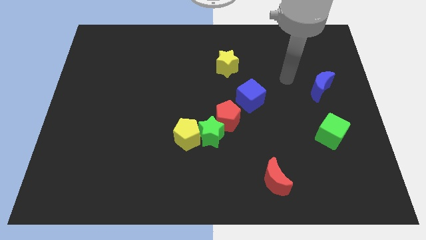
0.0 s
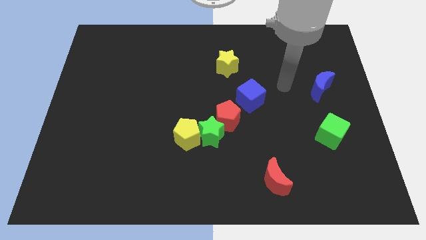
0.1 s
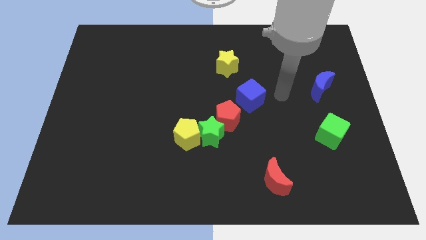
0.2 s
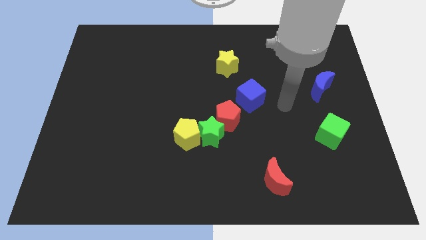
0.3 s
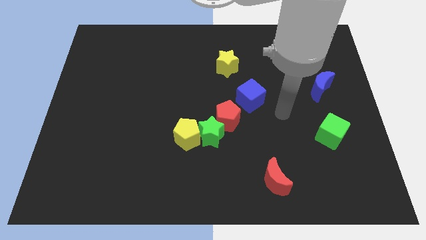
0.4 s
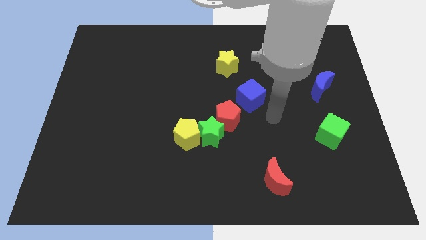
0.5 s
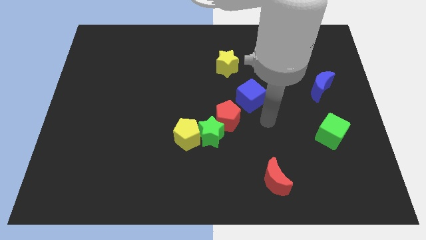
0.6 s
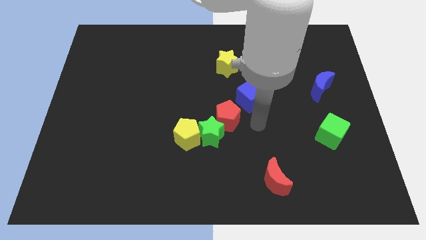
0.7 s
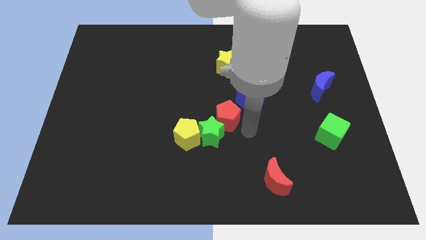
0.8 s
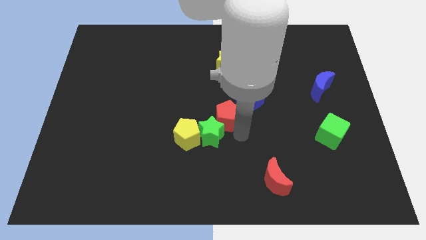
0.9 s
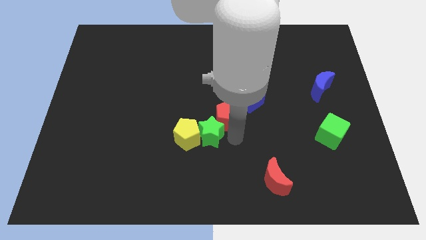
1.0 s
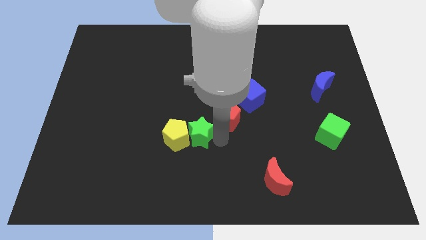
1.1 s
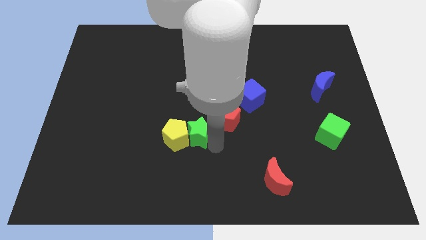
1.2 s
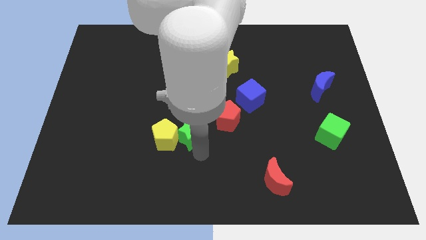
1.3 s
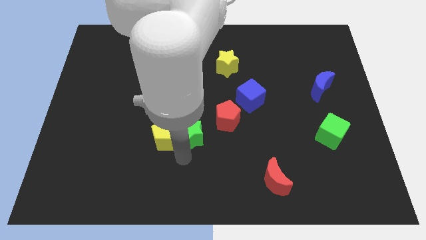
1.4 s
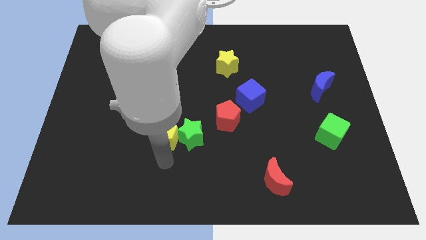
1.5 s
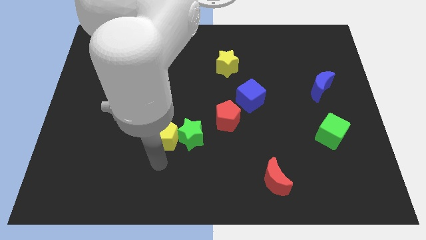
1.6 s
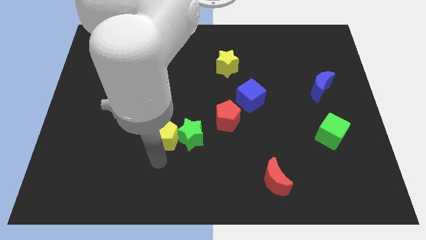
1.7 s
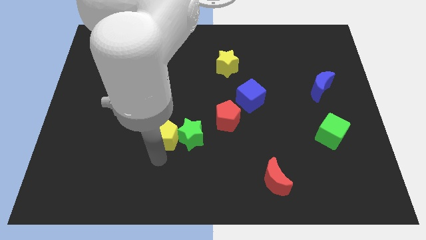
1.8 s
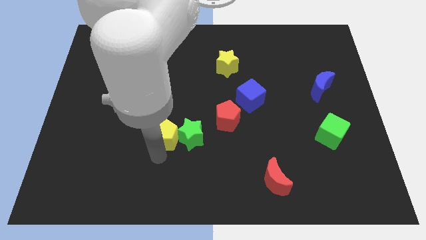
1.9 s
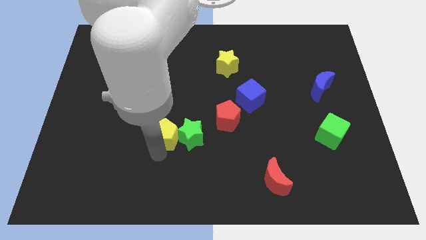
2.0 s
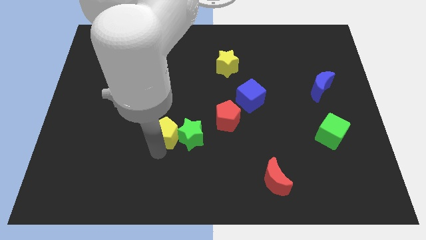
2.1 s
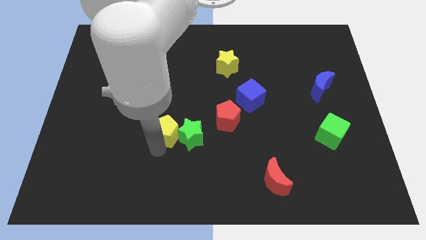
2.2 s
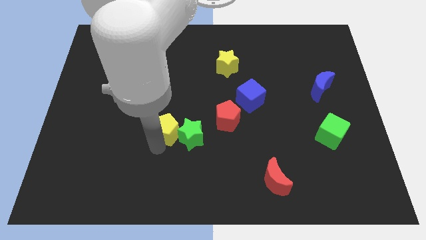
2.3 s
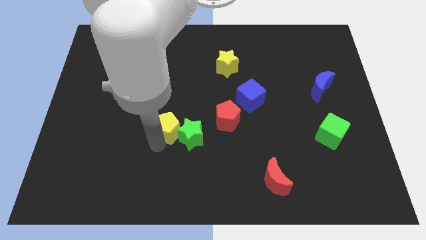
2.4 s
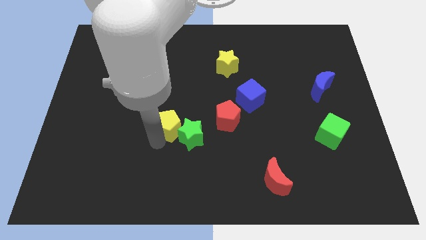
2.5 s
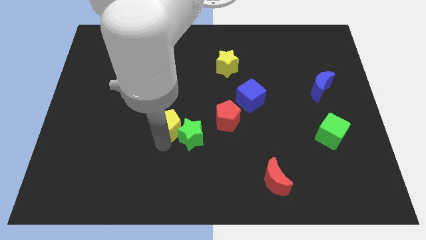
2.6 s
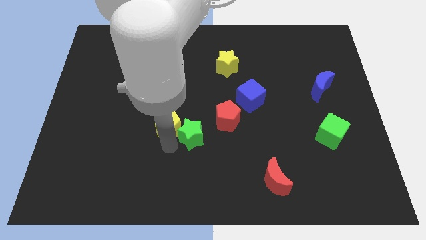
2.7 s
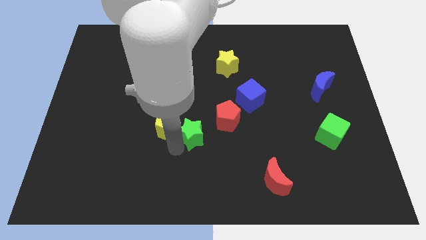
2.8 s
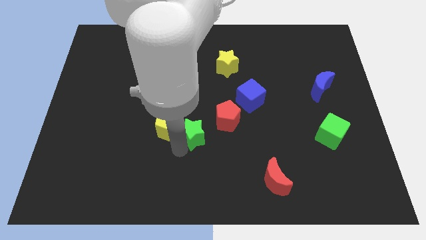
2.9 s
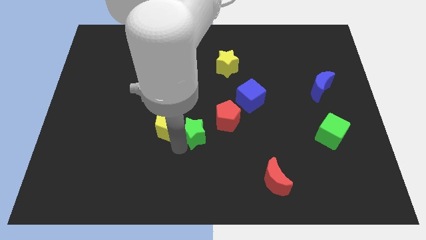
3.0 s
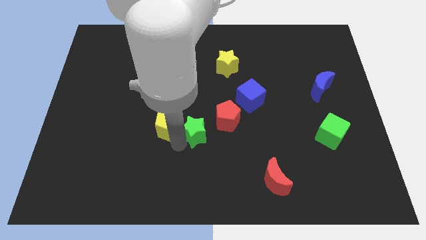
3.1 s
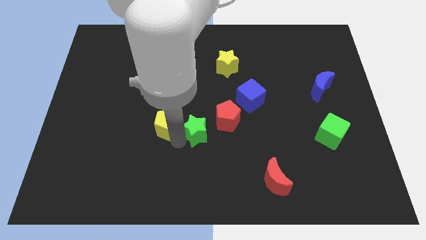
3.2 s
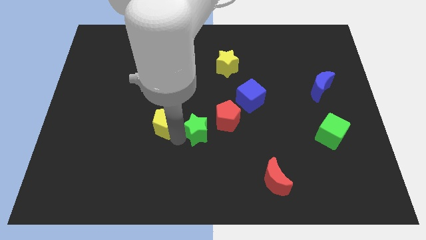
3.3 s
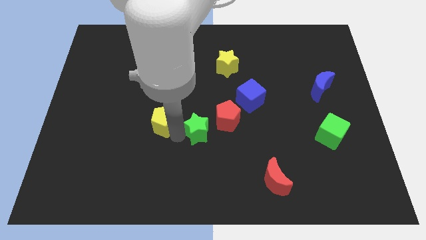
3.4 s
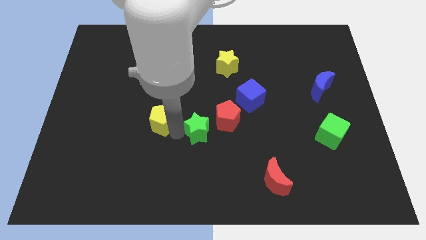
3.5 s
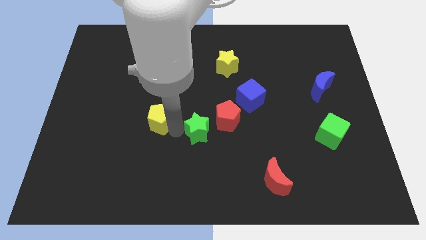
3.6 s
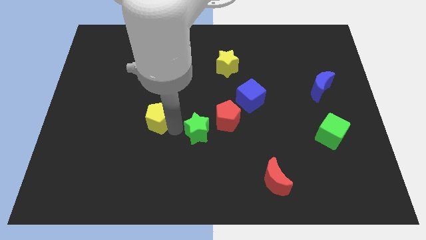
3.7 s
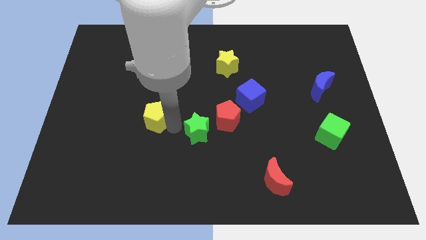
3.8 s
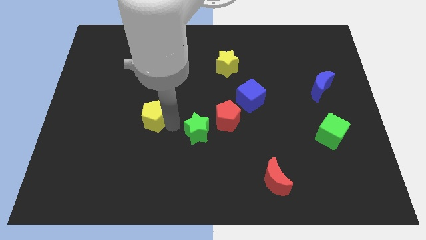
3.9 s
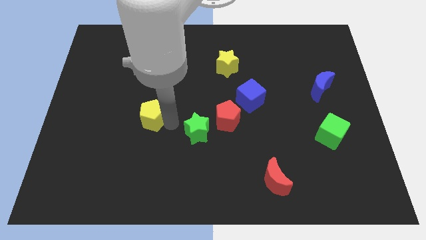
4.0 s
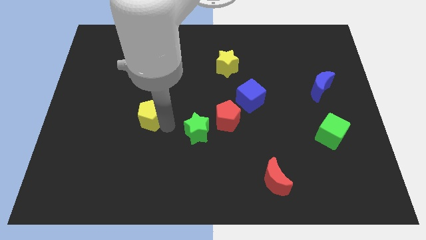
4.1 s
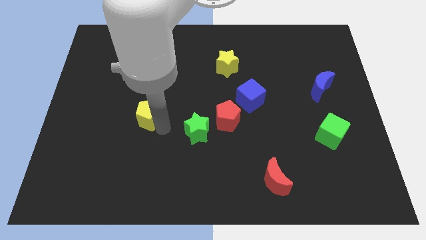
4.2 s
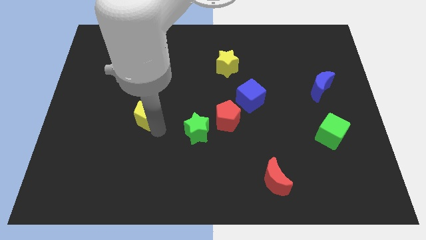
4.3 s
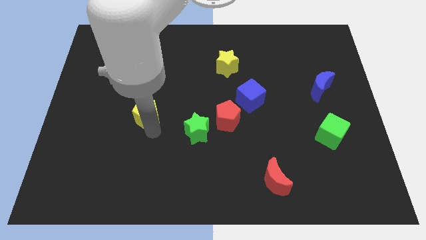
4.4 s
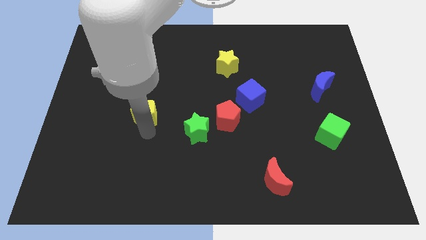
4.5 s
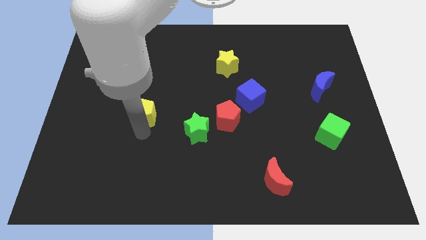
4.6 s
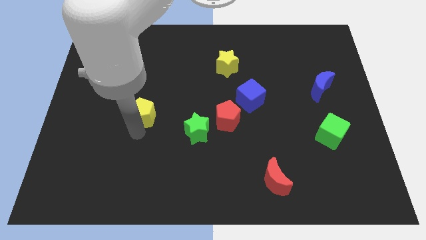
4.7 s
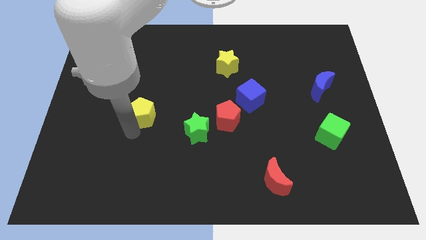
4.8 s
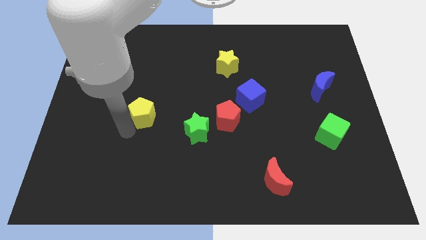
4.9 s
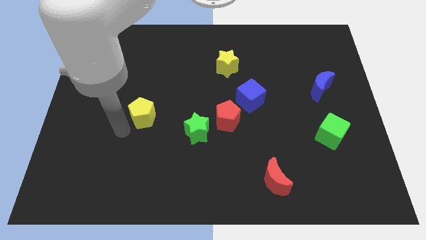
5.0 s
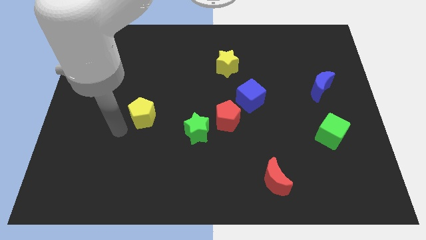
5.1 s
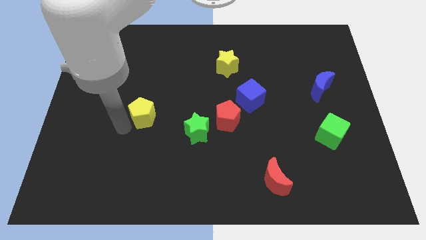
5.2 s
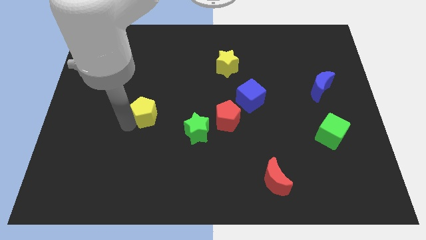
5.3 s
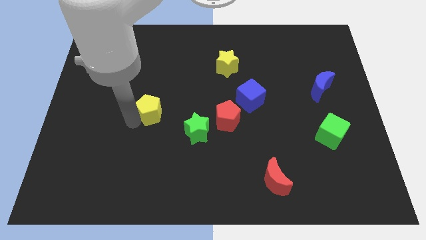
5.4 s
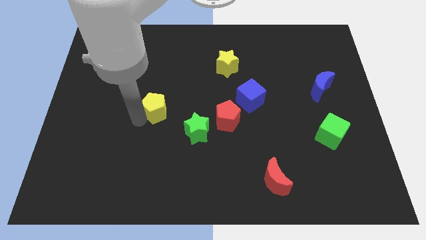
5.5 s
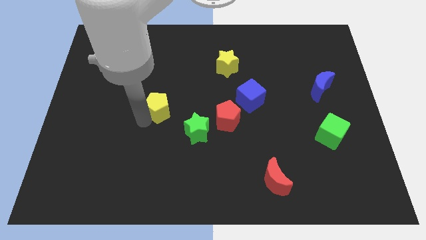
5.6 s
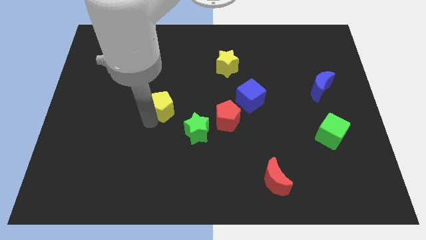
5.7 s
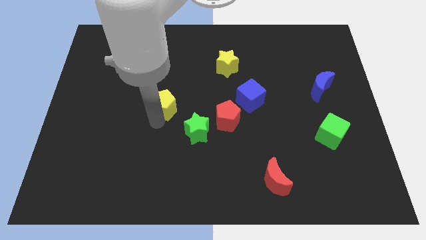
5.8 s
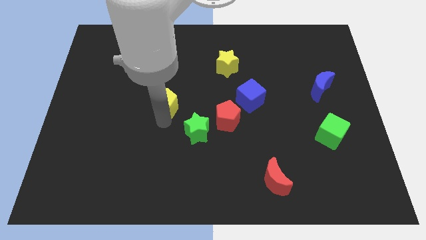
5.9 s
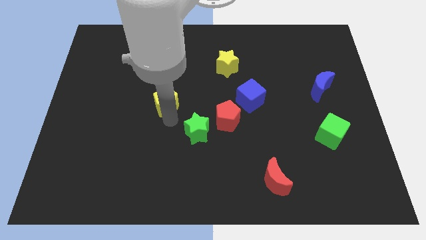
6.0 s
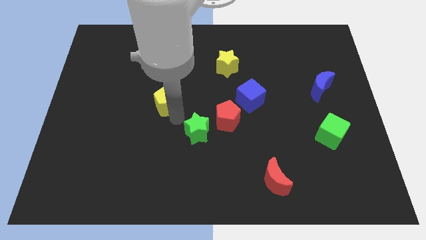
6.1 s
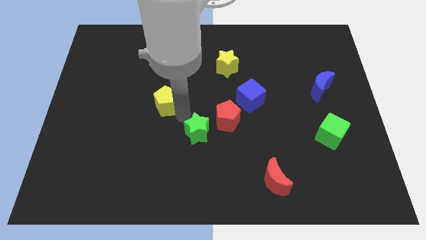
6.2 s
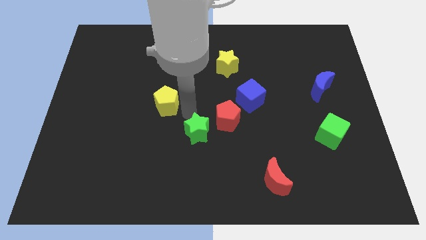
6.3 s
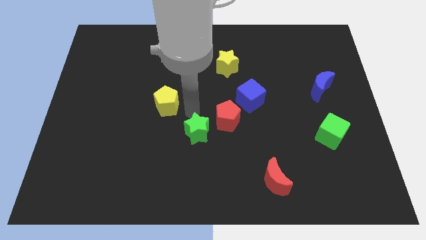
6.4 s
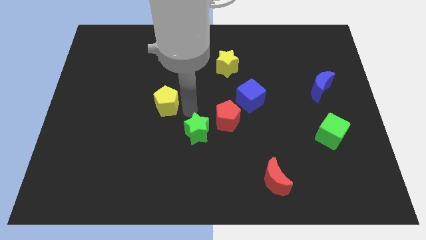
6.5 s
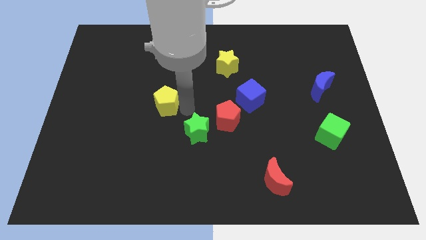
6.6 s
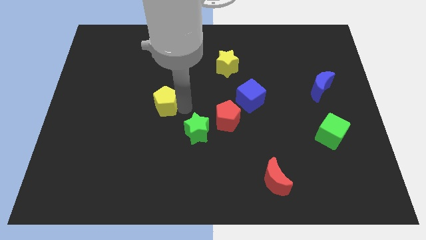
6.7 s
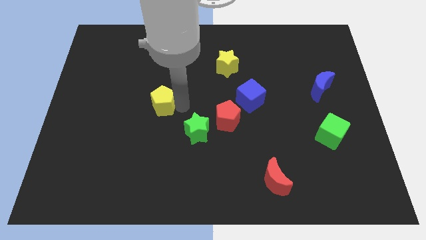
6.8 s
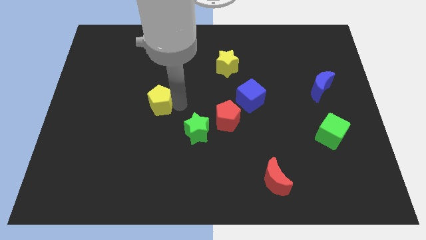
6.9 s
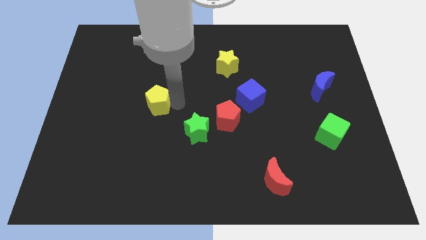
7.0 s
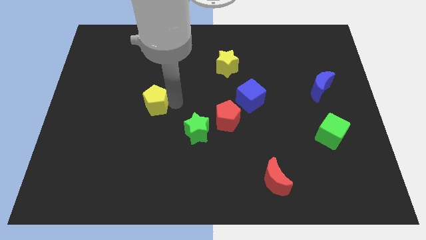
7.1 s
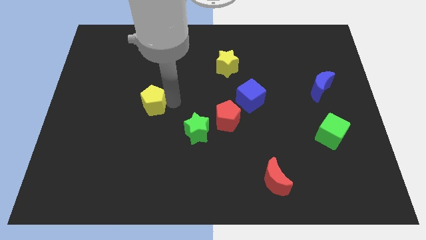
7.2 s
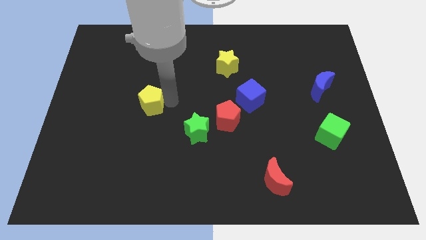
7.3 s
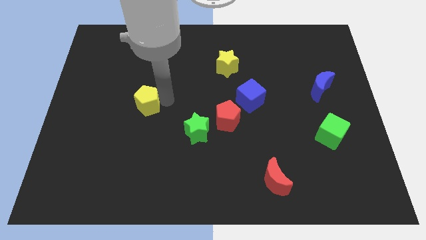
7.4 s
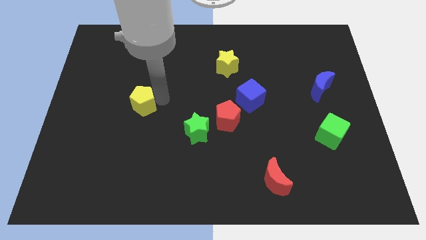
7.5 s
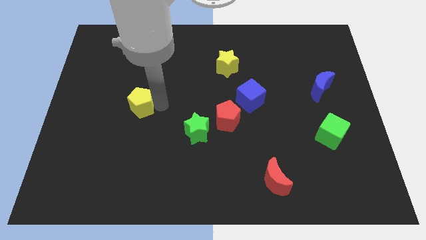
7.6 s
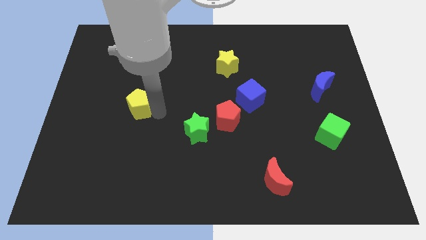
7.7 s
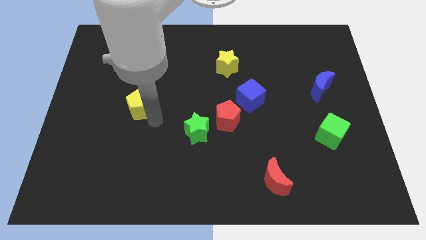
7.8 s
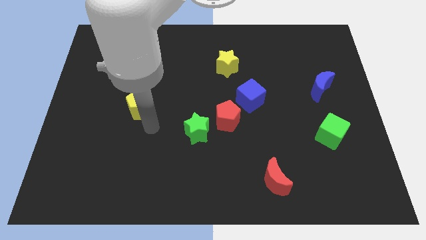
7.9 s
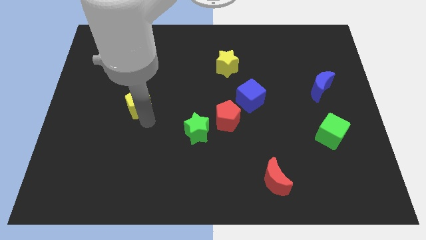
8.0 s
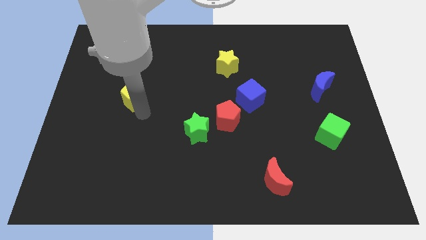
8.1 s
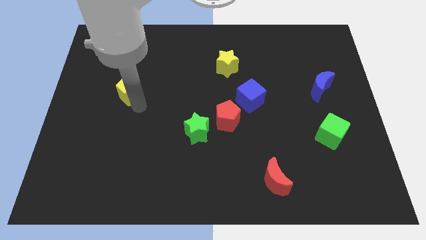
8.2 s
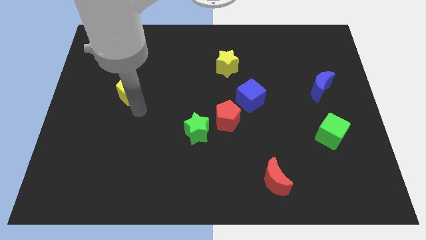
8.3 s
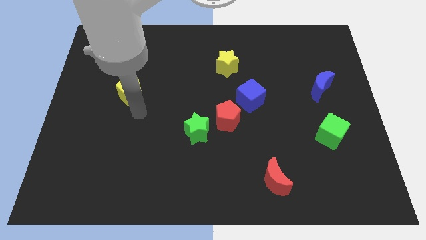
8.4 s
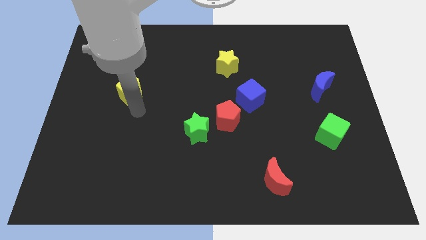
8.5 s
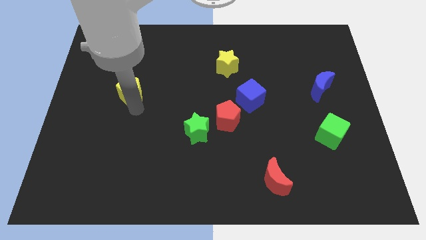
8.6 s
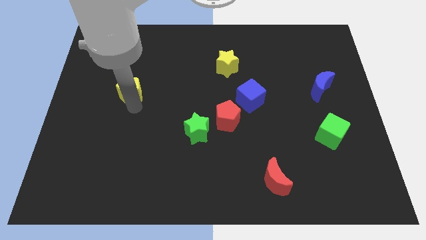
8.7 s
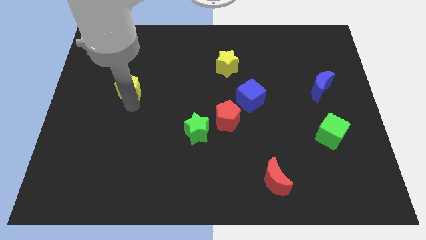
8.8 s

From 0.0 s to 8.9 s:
slide the yellow pentagon diagonally up and to the left
